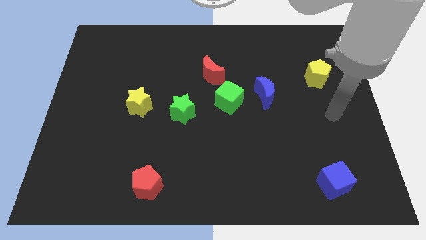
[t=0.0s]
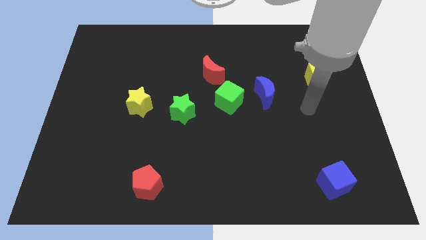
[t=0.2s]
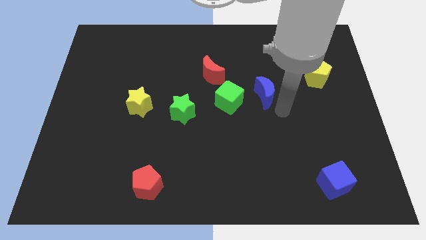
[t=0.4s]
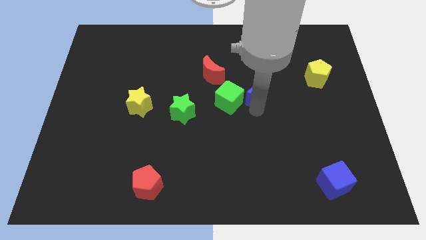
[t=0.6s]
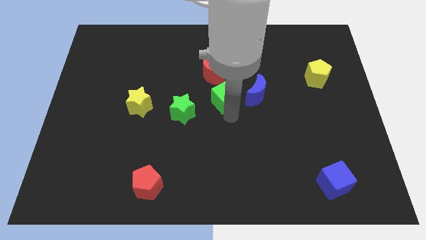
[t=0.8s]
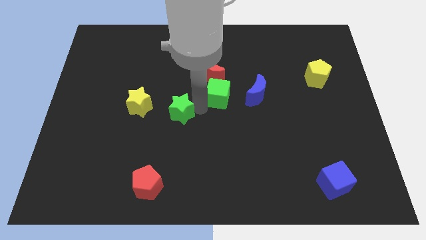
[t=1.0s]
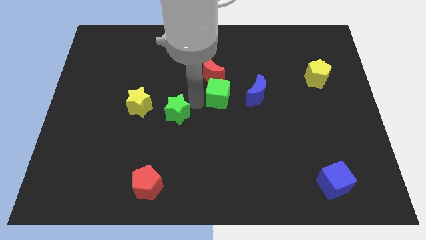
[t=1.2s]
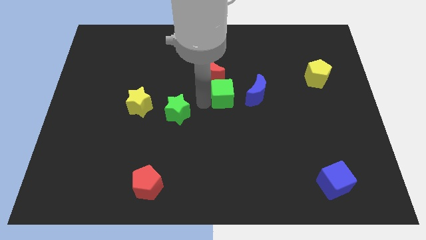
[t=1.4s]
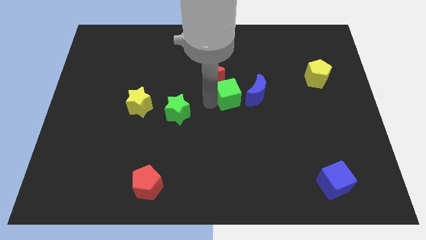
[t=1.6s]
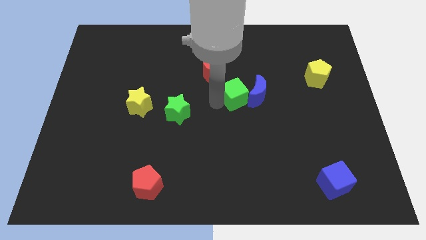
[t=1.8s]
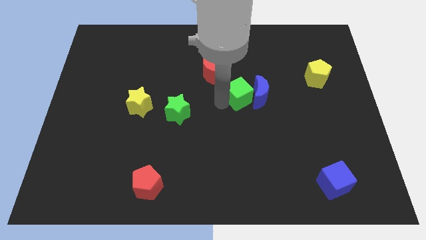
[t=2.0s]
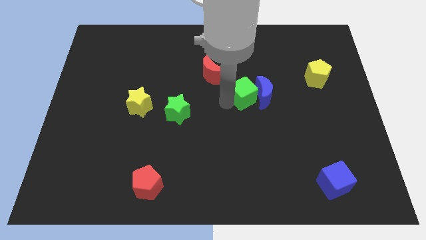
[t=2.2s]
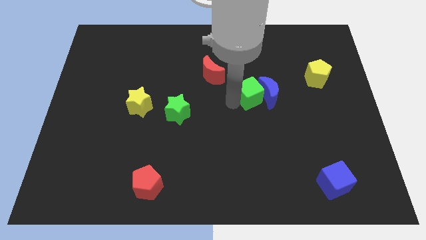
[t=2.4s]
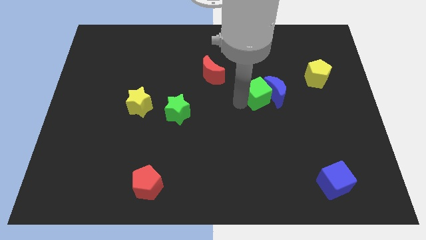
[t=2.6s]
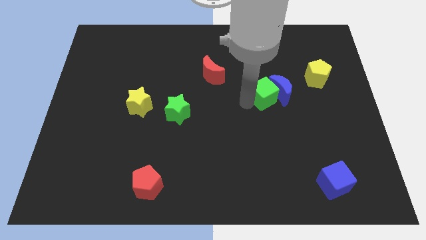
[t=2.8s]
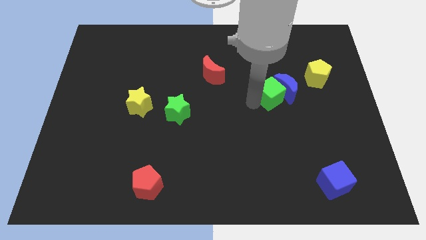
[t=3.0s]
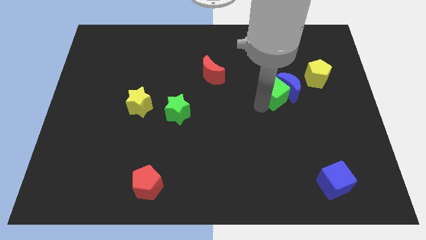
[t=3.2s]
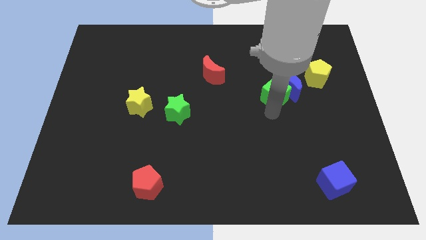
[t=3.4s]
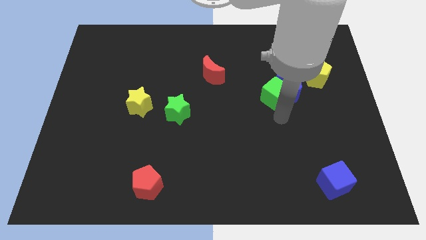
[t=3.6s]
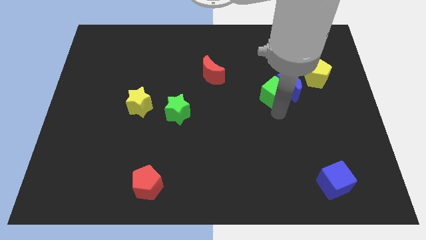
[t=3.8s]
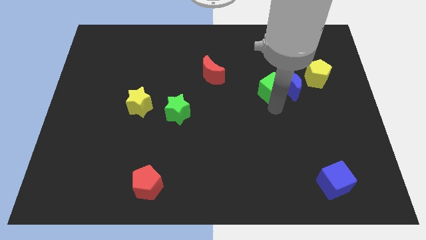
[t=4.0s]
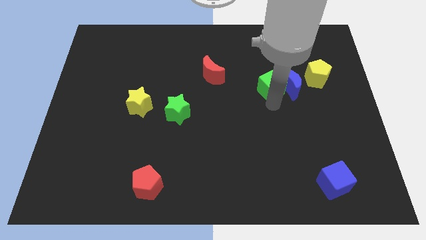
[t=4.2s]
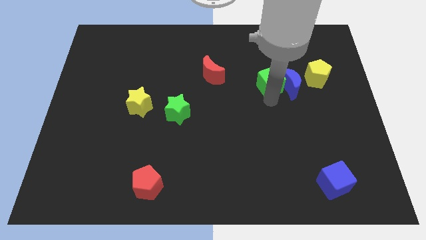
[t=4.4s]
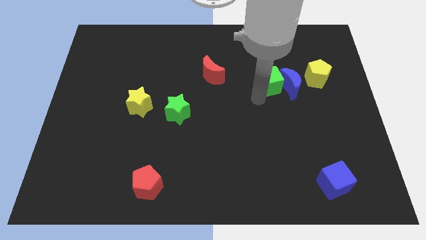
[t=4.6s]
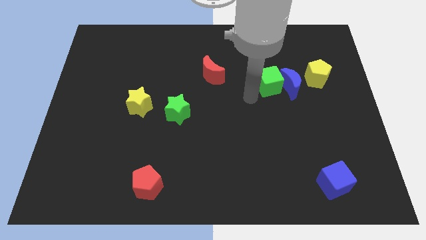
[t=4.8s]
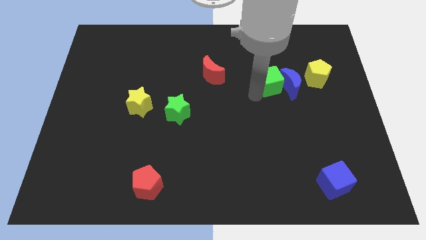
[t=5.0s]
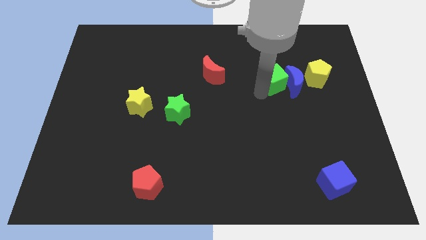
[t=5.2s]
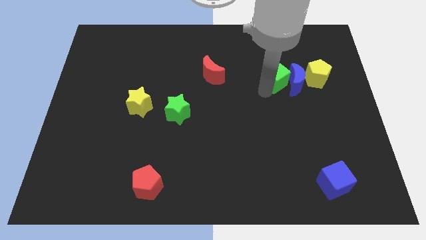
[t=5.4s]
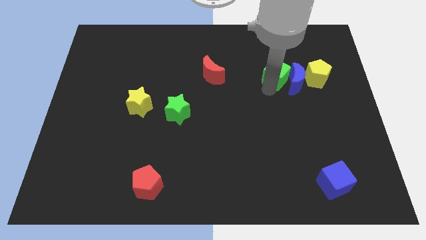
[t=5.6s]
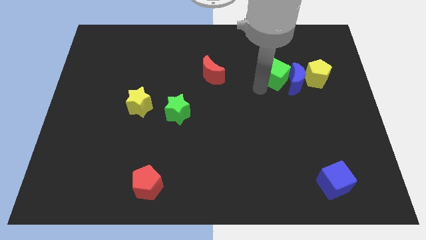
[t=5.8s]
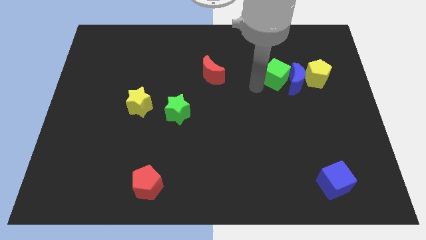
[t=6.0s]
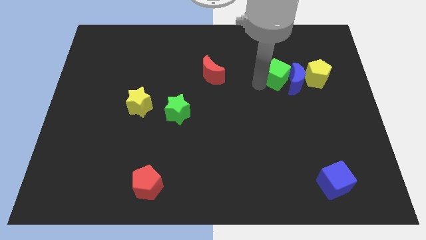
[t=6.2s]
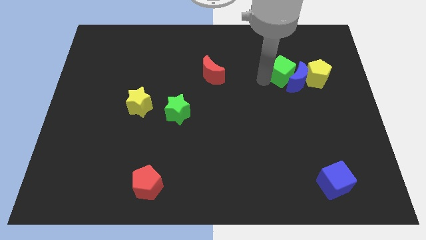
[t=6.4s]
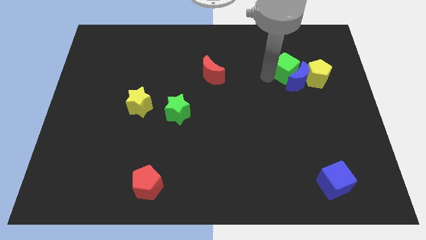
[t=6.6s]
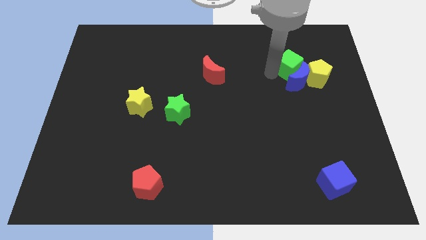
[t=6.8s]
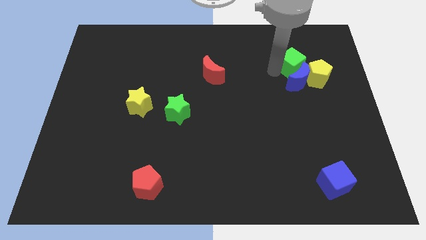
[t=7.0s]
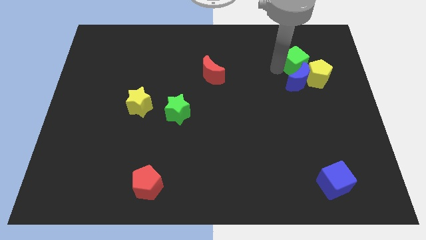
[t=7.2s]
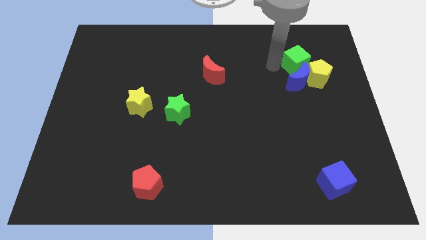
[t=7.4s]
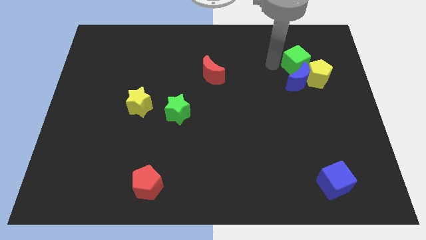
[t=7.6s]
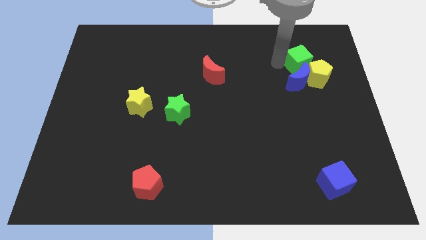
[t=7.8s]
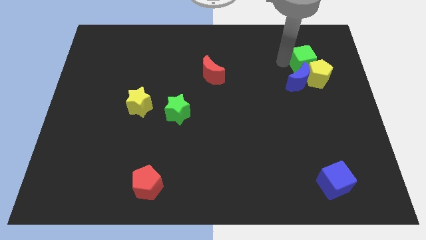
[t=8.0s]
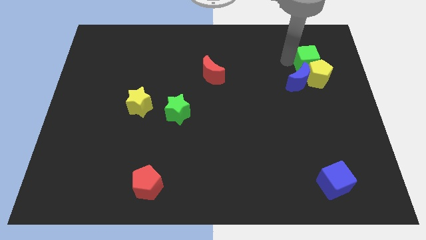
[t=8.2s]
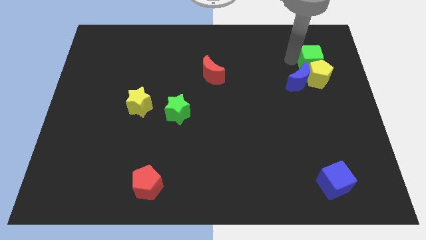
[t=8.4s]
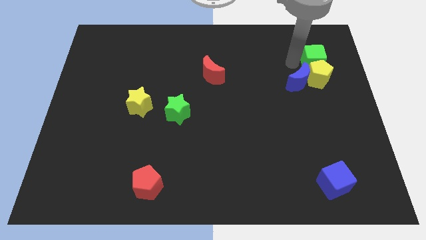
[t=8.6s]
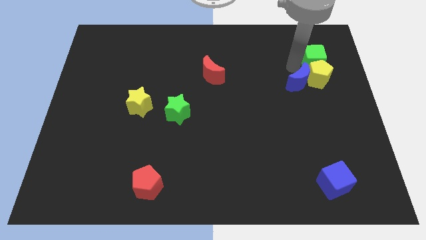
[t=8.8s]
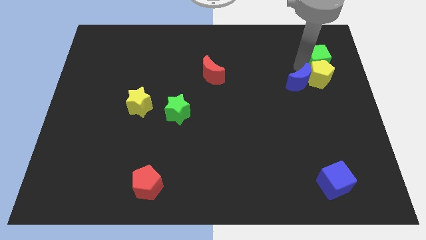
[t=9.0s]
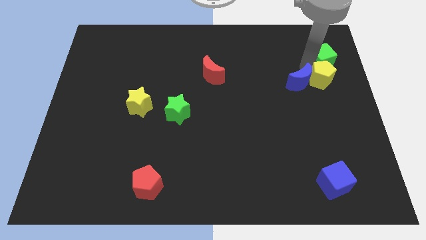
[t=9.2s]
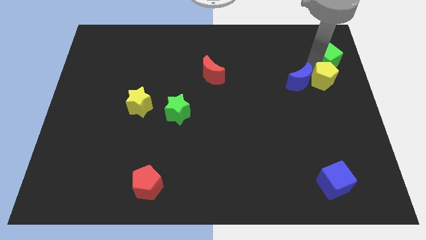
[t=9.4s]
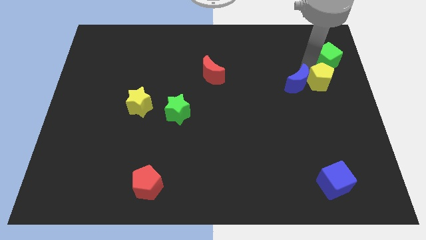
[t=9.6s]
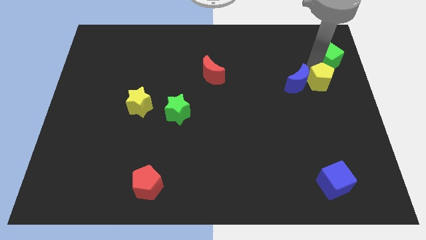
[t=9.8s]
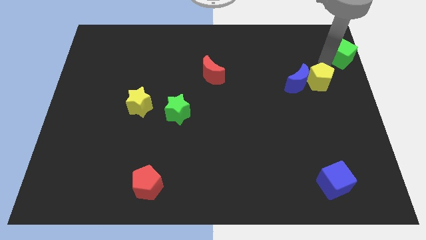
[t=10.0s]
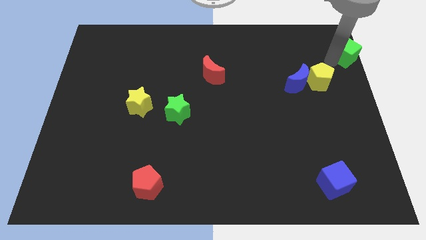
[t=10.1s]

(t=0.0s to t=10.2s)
push the green cube to the top right

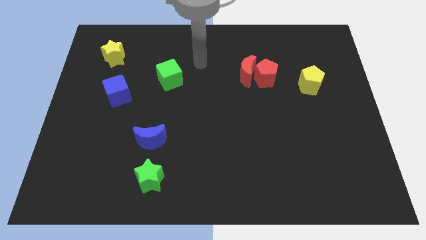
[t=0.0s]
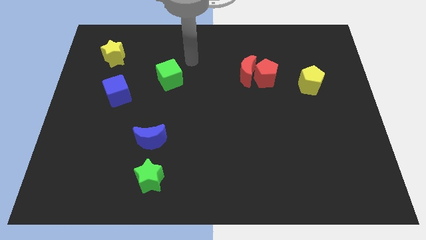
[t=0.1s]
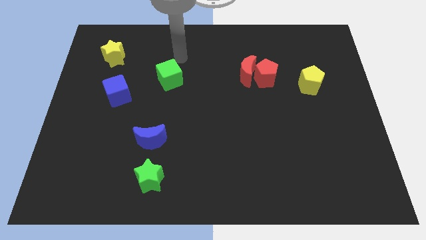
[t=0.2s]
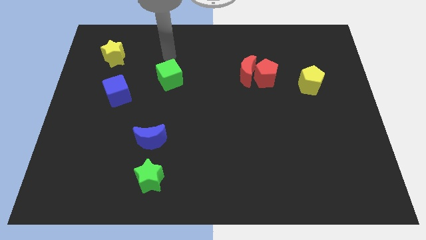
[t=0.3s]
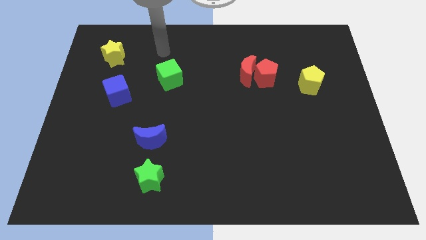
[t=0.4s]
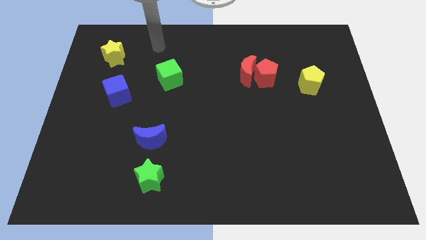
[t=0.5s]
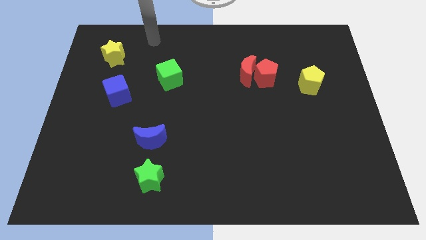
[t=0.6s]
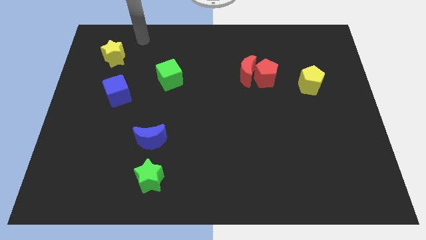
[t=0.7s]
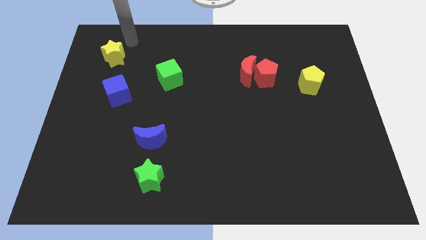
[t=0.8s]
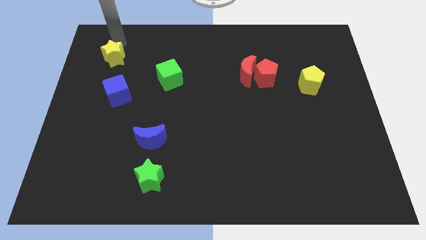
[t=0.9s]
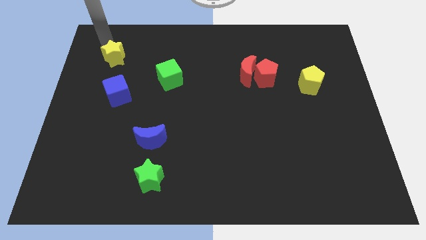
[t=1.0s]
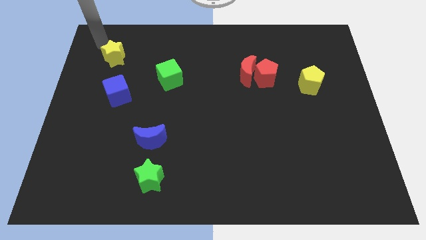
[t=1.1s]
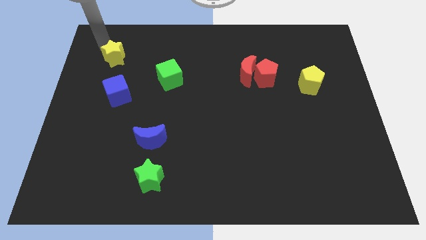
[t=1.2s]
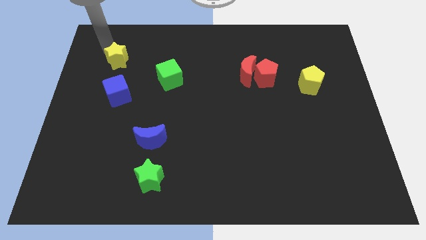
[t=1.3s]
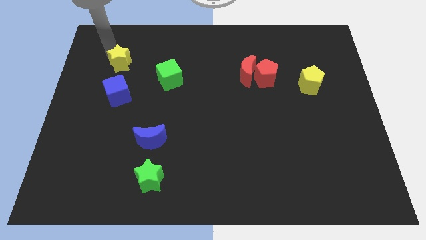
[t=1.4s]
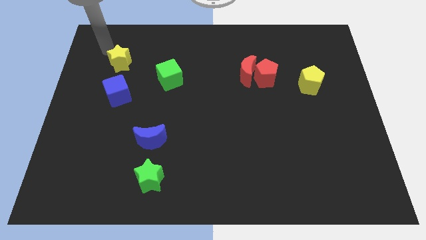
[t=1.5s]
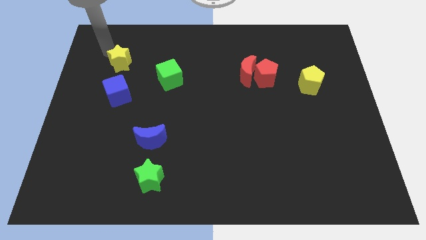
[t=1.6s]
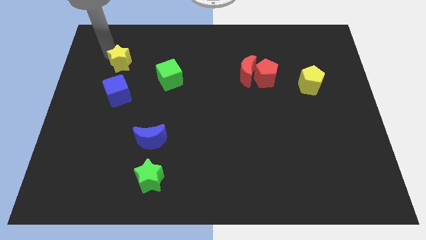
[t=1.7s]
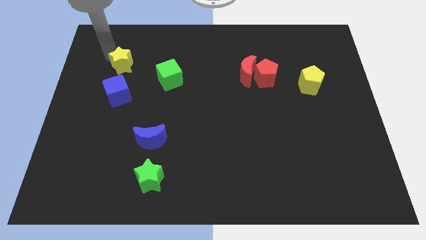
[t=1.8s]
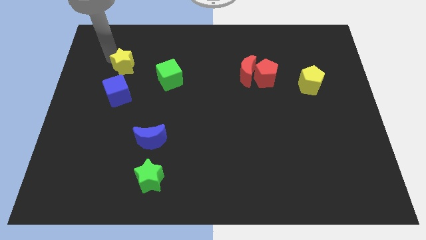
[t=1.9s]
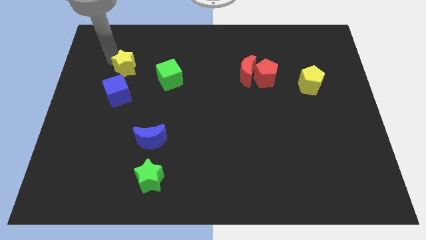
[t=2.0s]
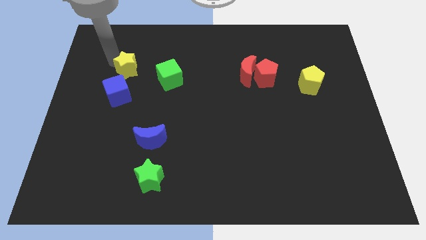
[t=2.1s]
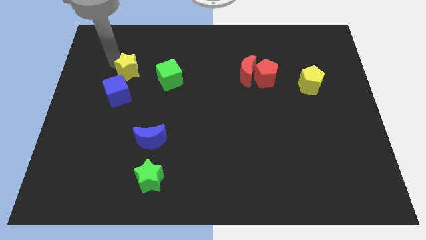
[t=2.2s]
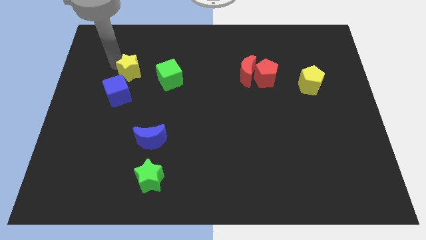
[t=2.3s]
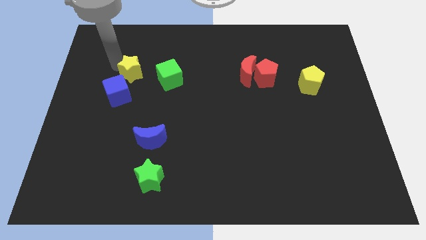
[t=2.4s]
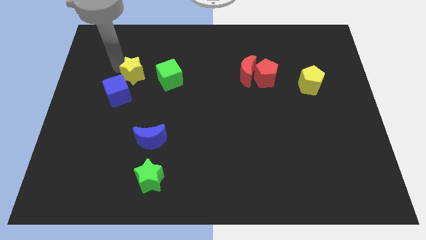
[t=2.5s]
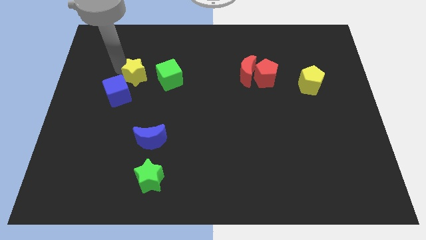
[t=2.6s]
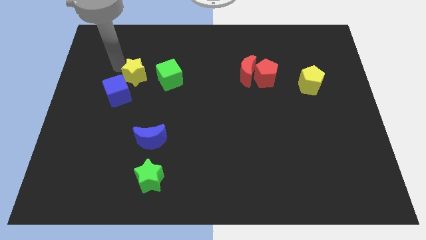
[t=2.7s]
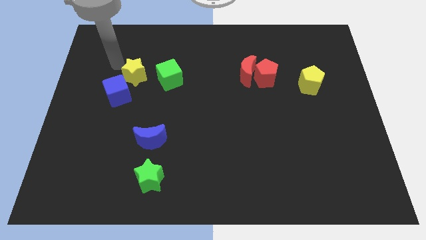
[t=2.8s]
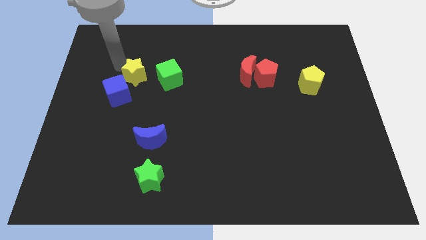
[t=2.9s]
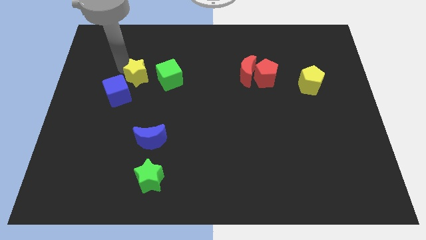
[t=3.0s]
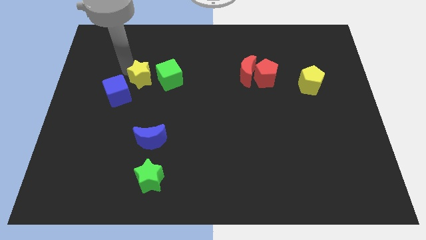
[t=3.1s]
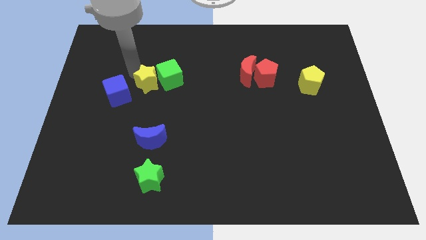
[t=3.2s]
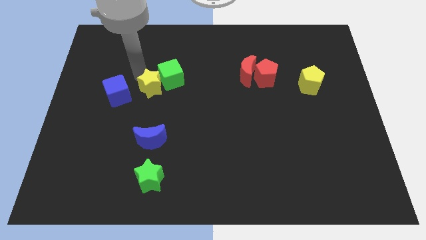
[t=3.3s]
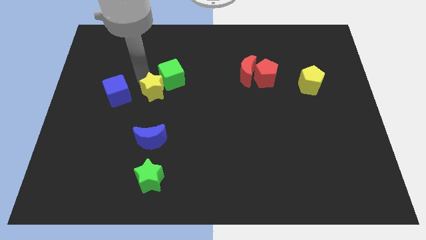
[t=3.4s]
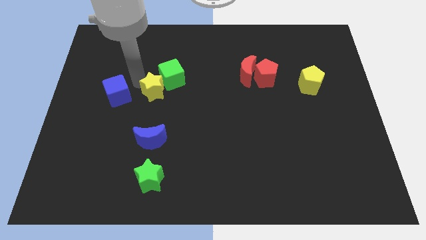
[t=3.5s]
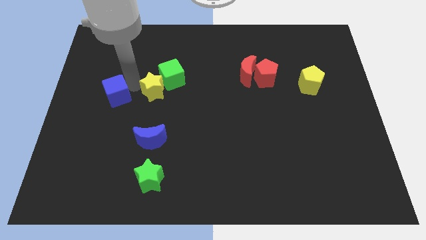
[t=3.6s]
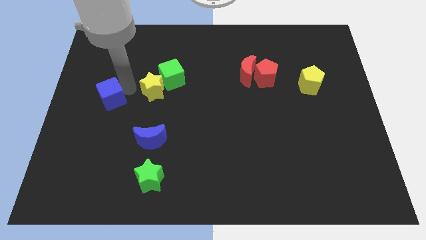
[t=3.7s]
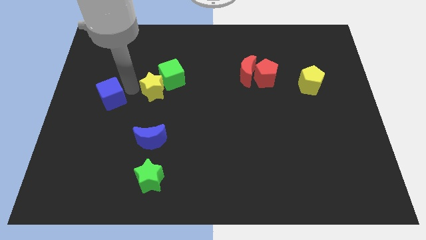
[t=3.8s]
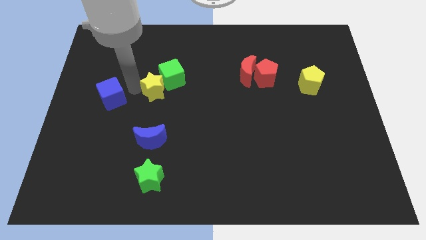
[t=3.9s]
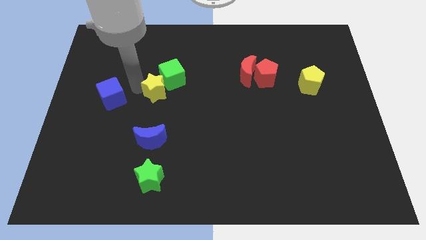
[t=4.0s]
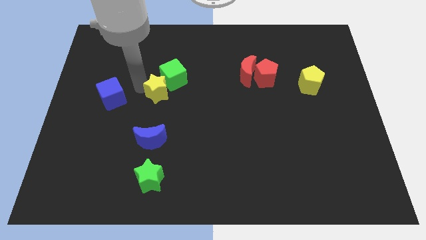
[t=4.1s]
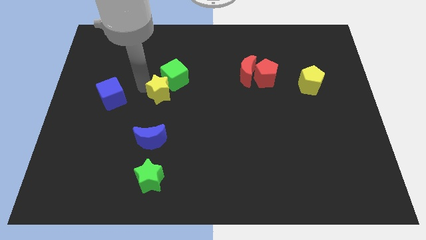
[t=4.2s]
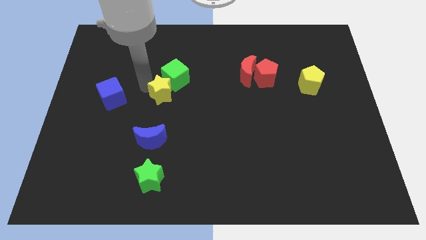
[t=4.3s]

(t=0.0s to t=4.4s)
move the yellow star to the middle of the board
